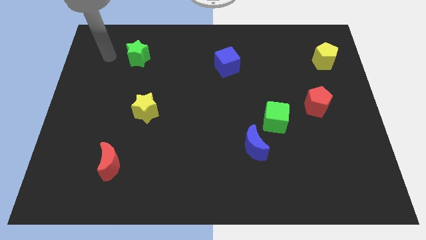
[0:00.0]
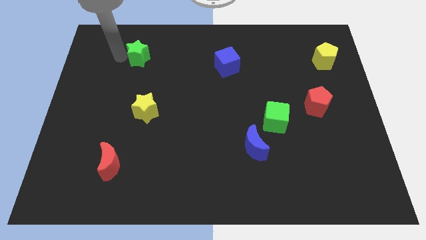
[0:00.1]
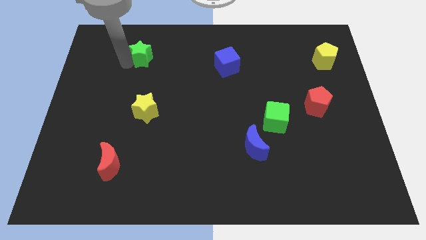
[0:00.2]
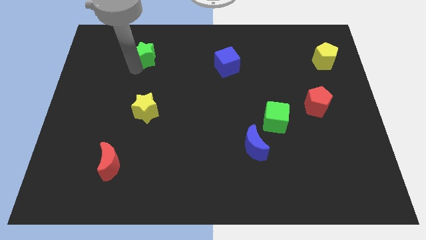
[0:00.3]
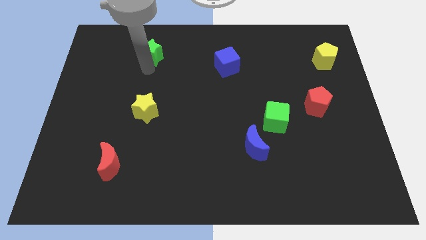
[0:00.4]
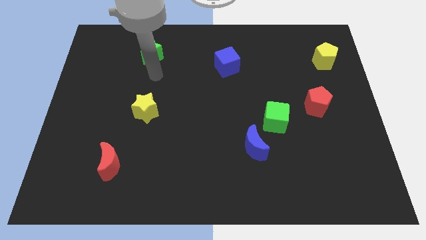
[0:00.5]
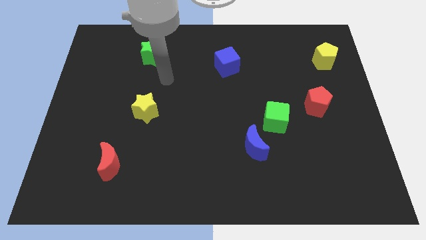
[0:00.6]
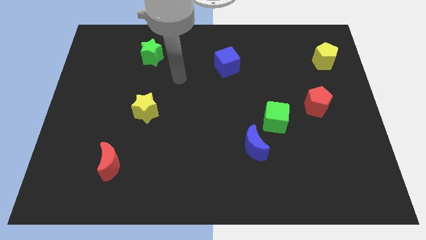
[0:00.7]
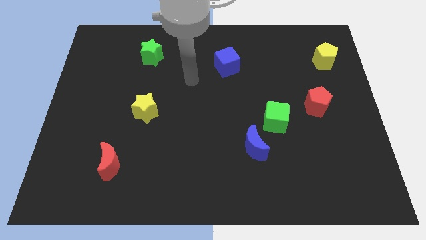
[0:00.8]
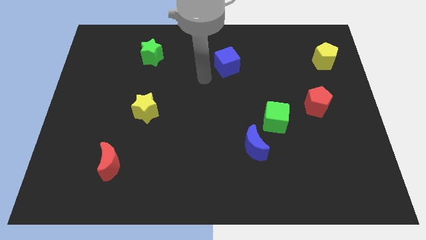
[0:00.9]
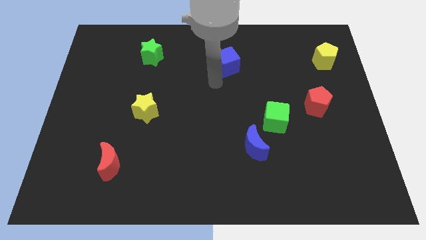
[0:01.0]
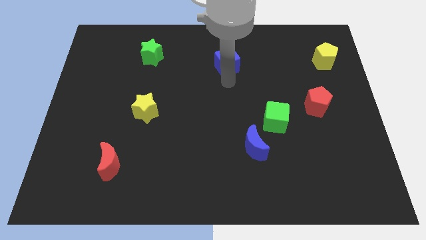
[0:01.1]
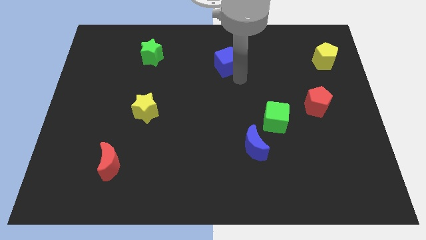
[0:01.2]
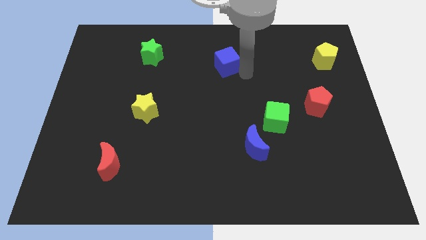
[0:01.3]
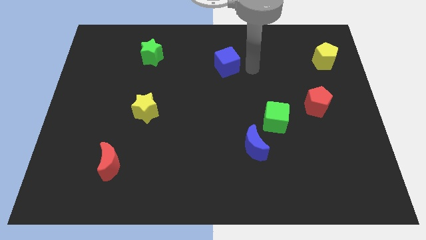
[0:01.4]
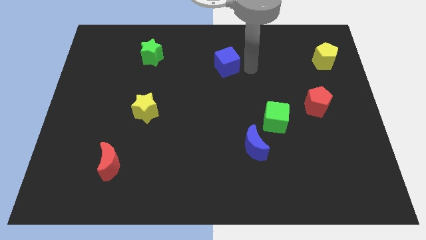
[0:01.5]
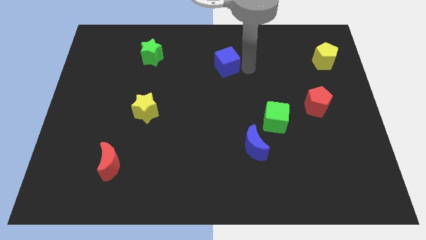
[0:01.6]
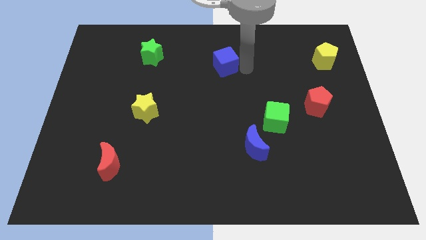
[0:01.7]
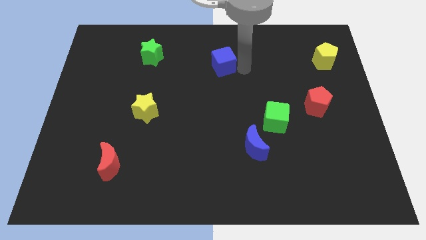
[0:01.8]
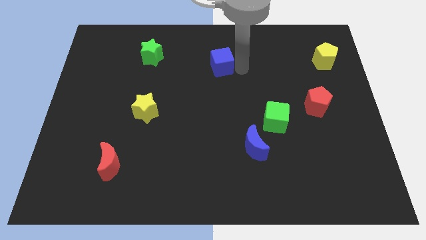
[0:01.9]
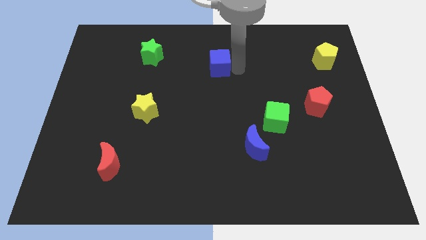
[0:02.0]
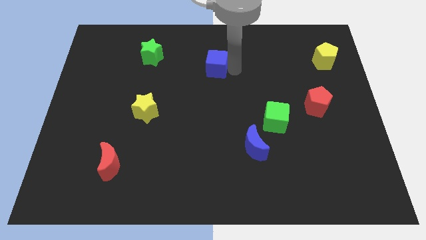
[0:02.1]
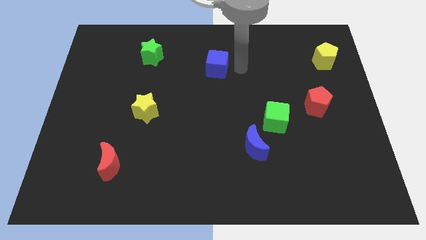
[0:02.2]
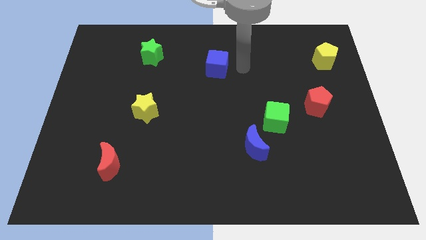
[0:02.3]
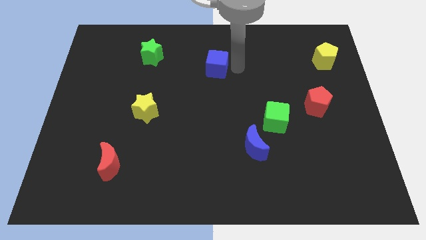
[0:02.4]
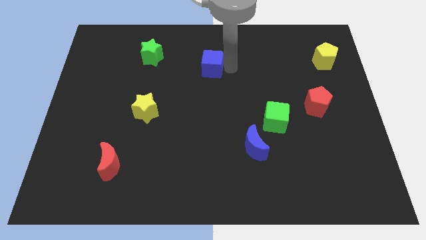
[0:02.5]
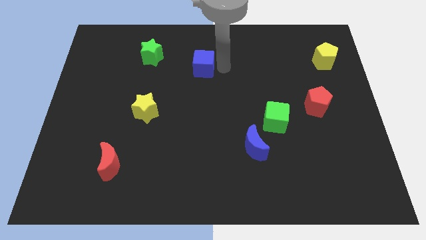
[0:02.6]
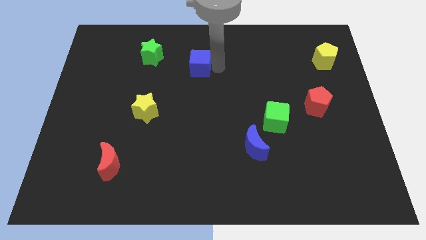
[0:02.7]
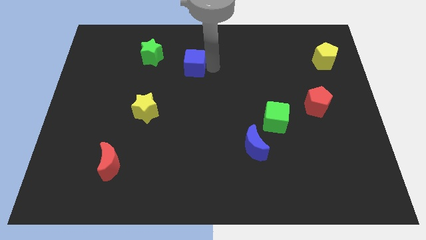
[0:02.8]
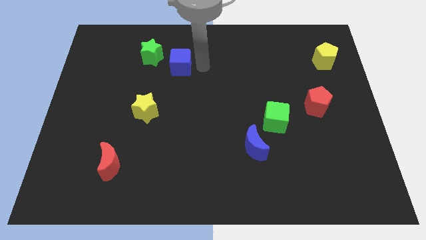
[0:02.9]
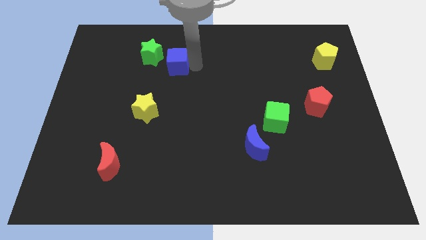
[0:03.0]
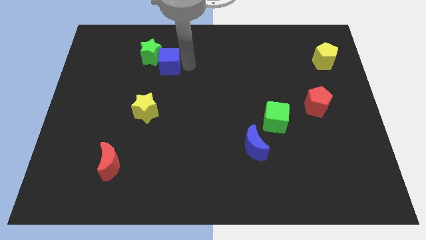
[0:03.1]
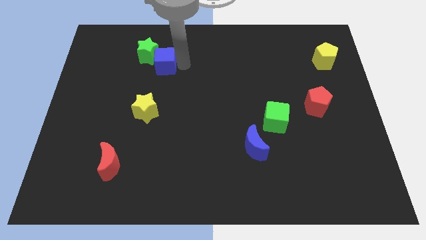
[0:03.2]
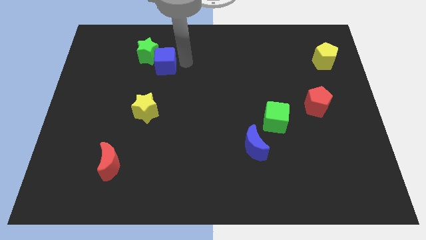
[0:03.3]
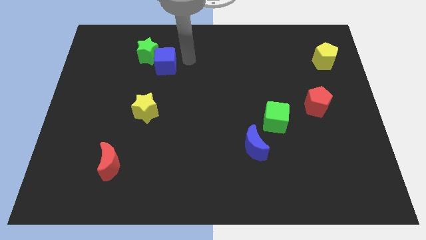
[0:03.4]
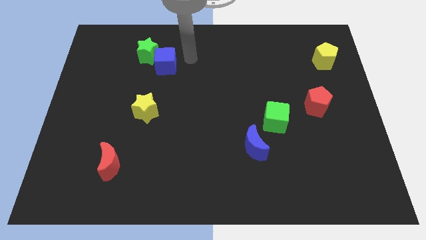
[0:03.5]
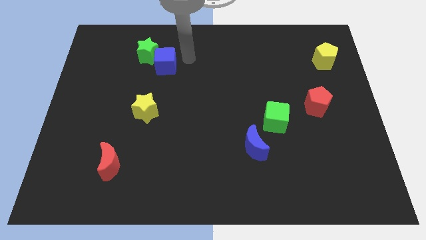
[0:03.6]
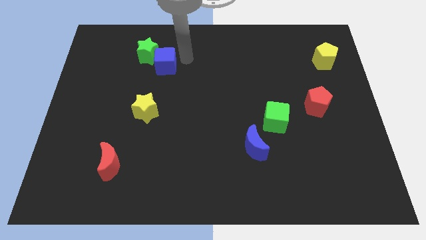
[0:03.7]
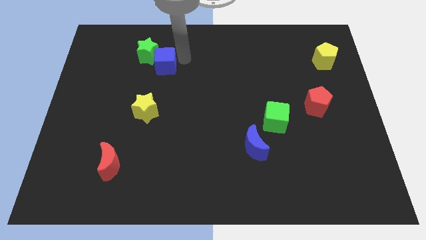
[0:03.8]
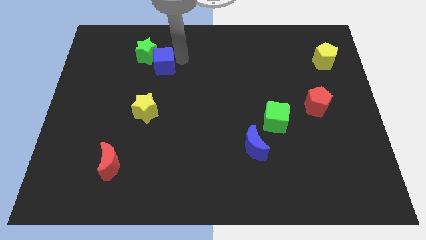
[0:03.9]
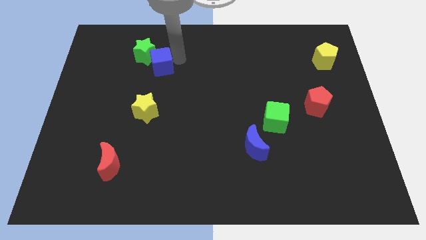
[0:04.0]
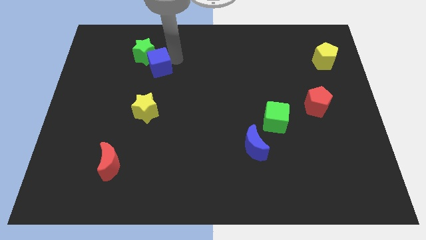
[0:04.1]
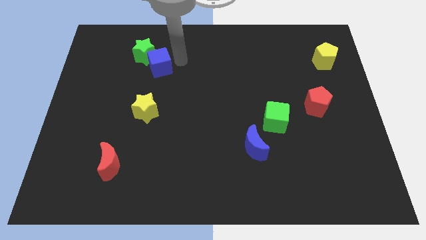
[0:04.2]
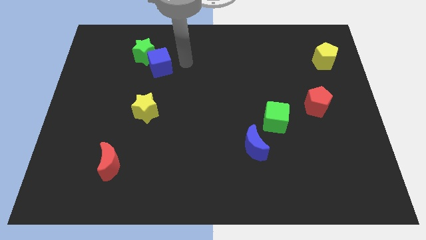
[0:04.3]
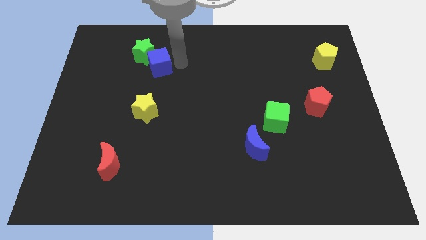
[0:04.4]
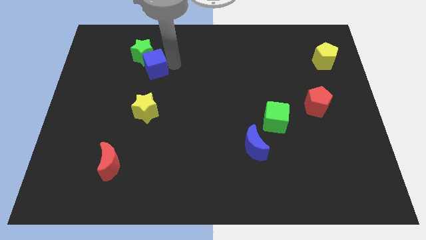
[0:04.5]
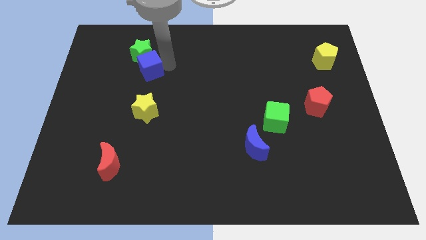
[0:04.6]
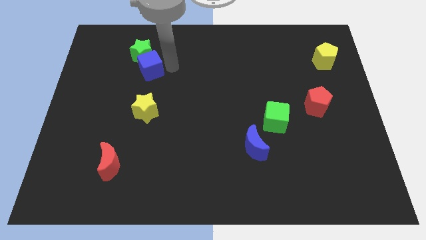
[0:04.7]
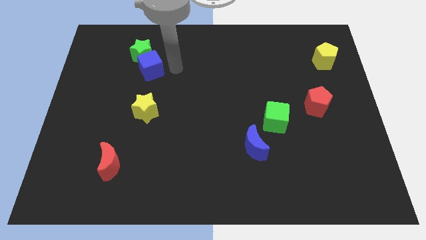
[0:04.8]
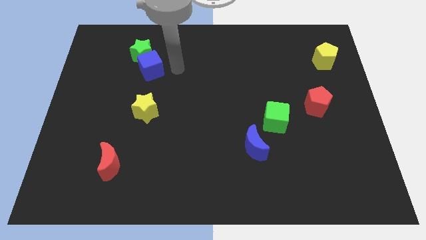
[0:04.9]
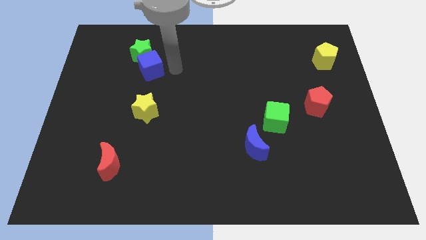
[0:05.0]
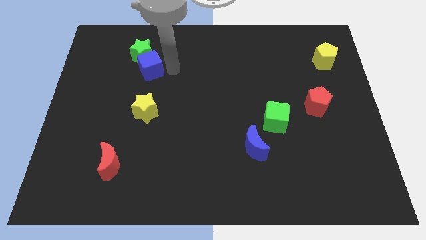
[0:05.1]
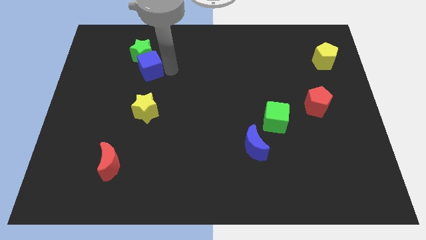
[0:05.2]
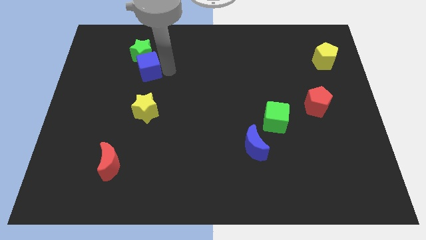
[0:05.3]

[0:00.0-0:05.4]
slide the blue cube left

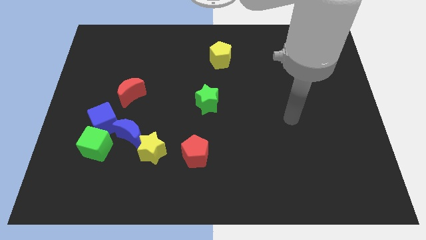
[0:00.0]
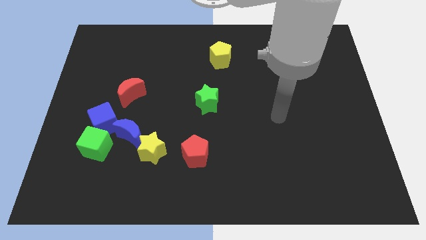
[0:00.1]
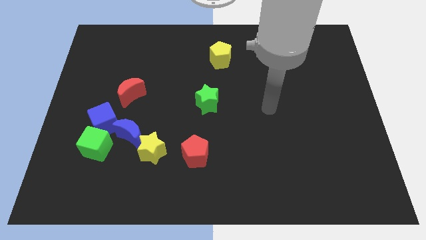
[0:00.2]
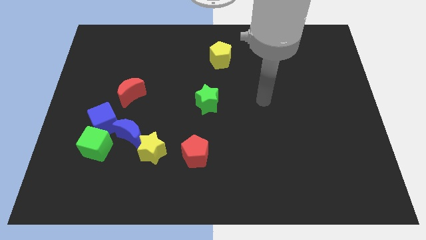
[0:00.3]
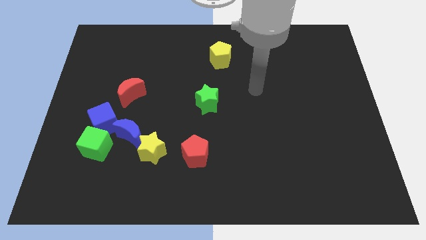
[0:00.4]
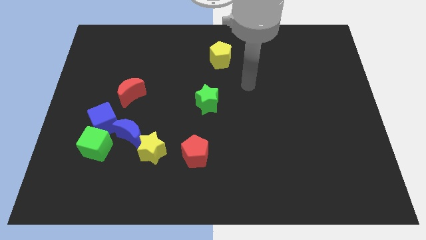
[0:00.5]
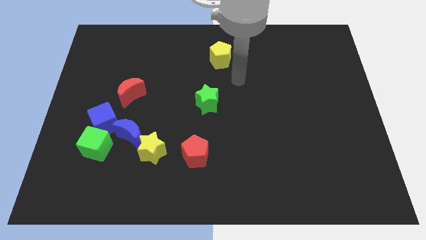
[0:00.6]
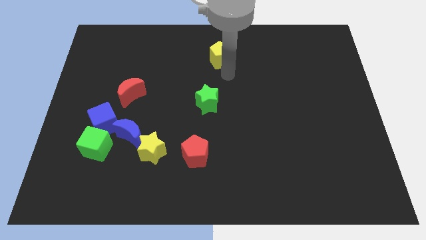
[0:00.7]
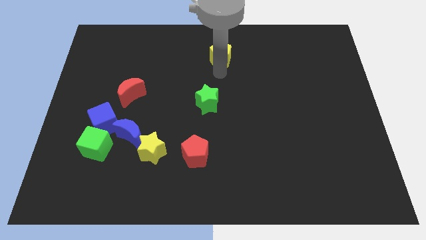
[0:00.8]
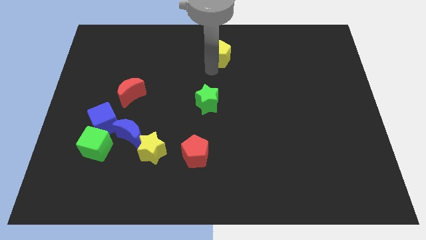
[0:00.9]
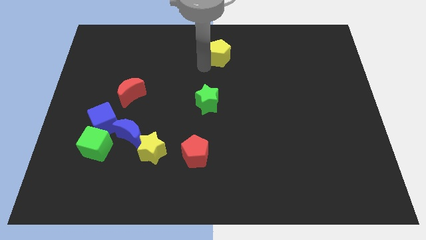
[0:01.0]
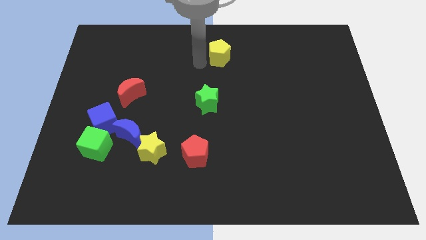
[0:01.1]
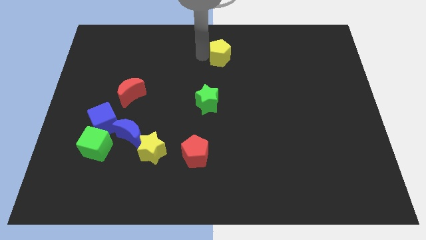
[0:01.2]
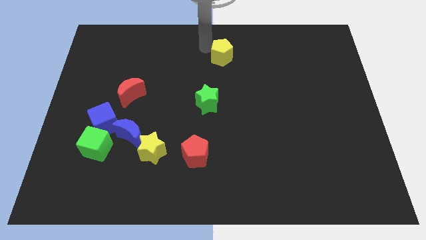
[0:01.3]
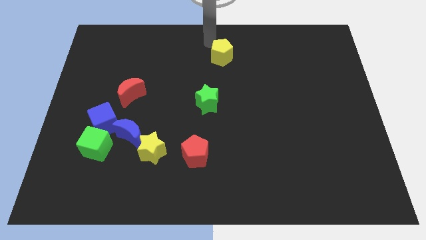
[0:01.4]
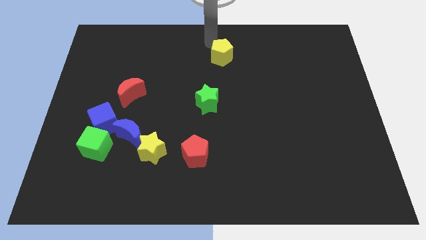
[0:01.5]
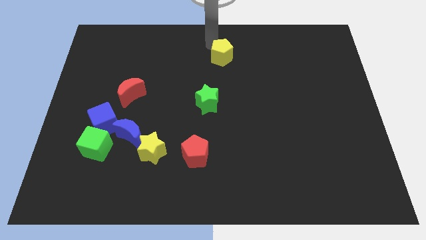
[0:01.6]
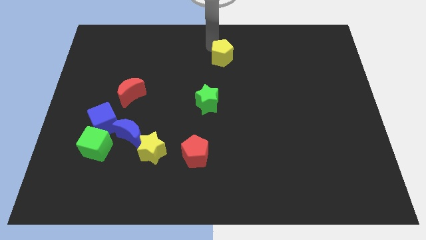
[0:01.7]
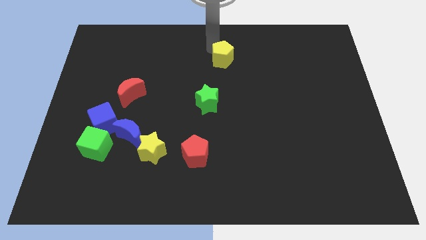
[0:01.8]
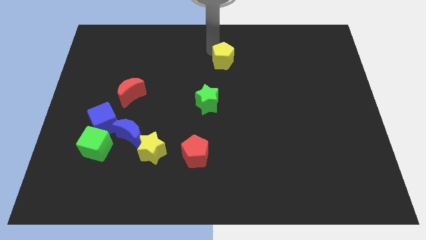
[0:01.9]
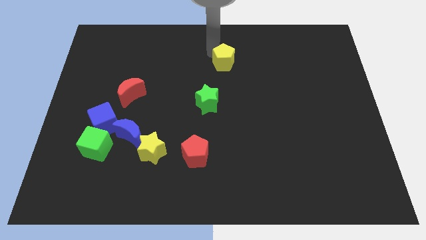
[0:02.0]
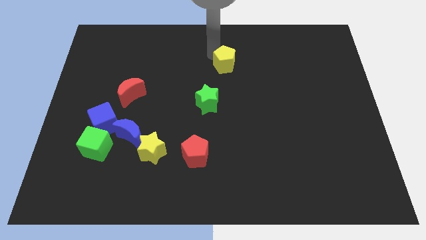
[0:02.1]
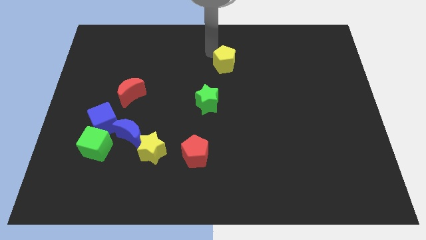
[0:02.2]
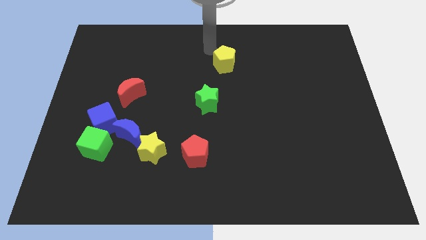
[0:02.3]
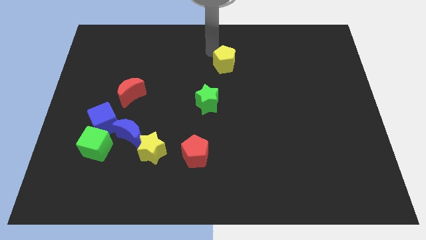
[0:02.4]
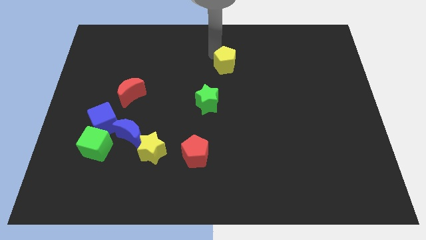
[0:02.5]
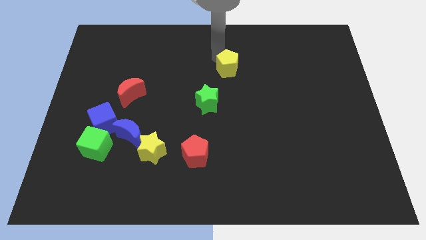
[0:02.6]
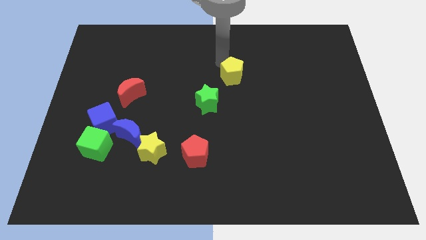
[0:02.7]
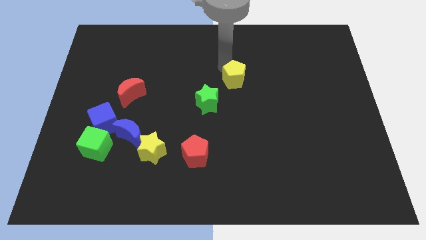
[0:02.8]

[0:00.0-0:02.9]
slightly push the yellow pentagon diagonally downwards and to the right
